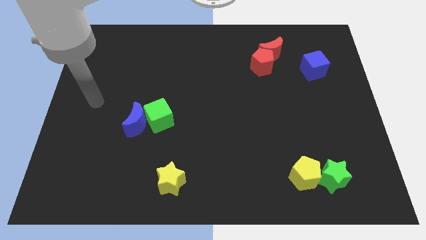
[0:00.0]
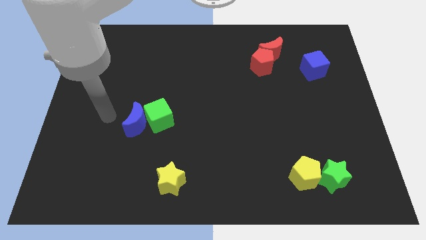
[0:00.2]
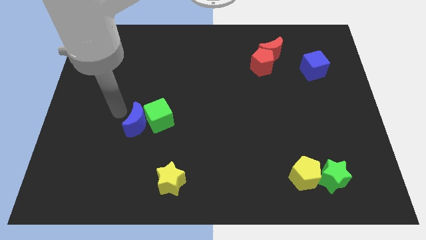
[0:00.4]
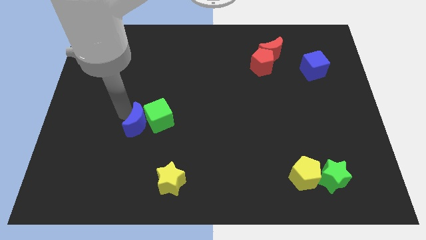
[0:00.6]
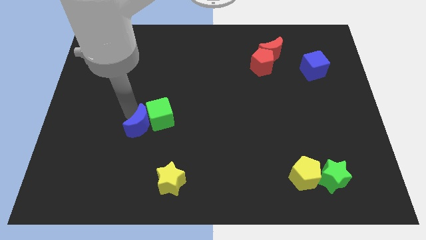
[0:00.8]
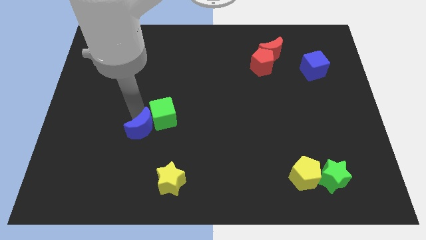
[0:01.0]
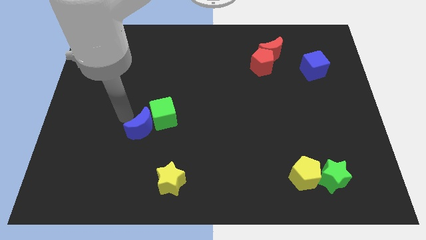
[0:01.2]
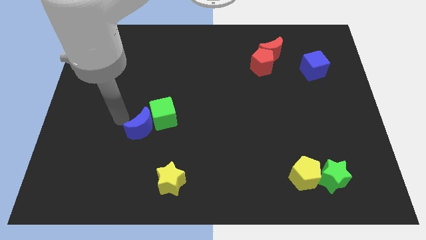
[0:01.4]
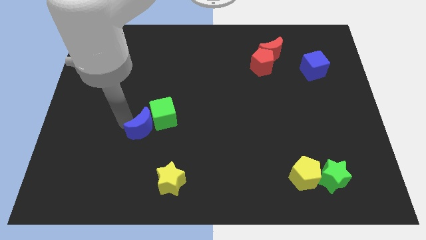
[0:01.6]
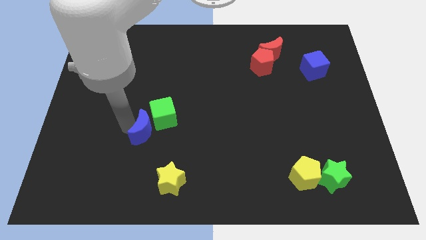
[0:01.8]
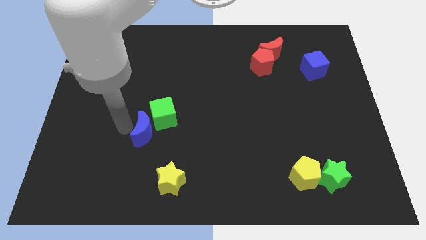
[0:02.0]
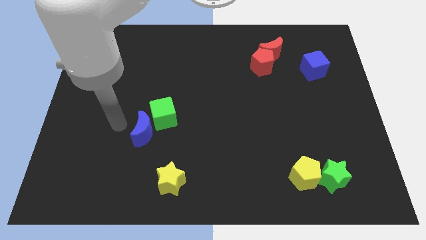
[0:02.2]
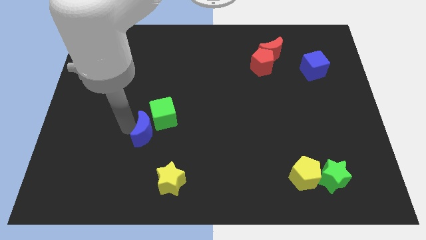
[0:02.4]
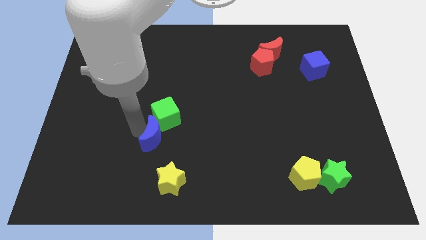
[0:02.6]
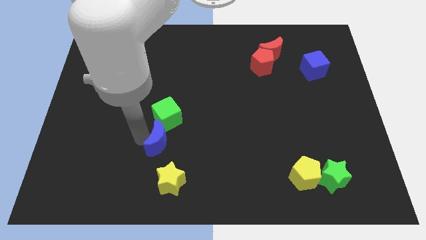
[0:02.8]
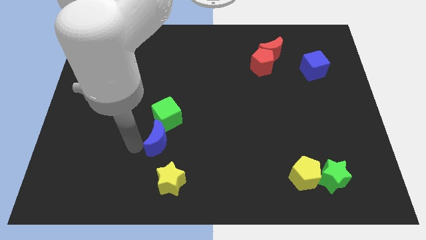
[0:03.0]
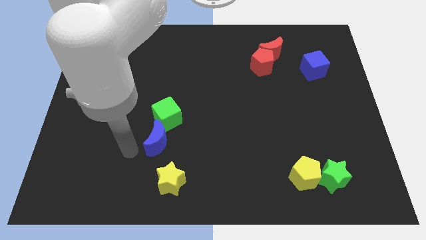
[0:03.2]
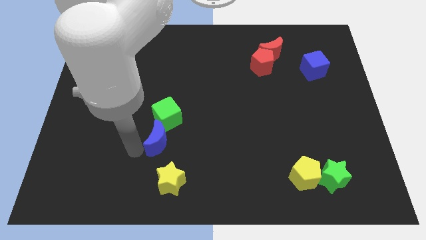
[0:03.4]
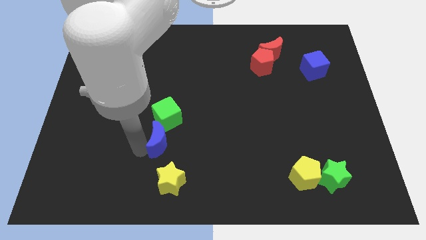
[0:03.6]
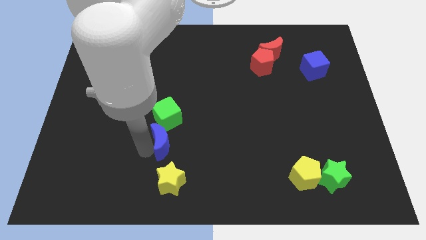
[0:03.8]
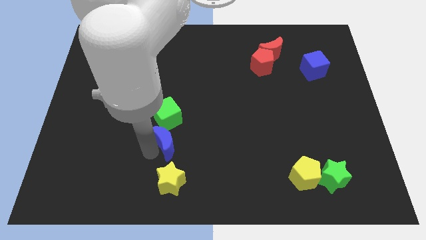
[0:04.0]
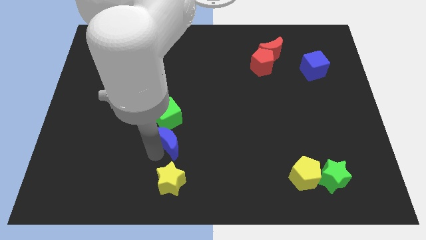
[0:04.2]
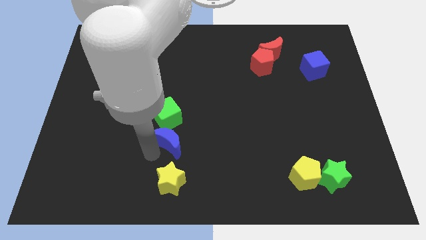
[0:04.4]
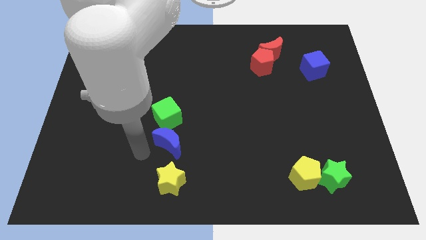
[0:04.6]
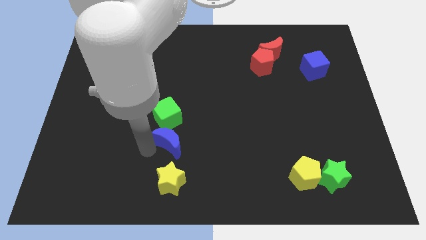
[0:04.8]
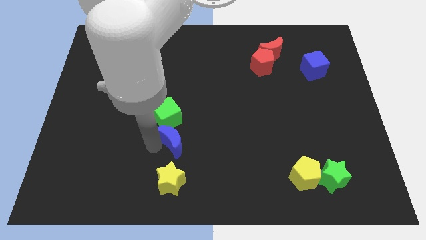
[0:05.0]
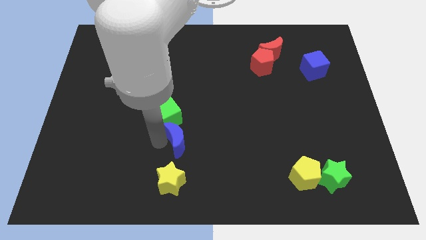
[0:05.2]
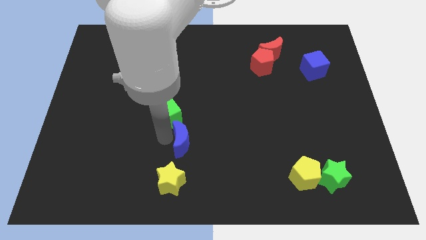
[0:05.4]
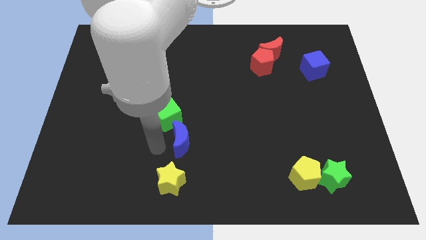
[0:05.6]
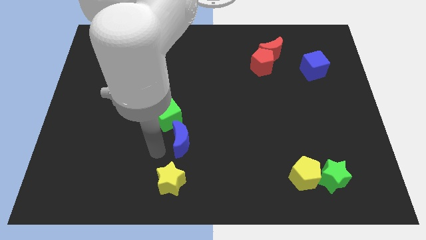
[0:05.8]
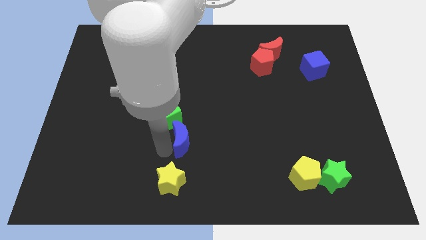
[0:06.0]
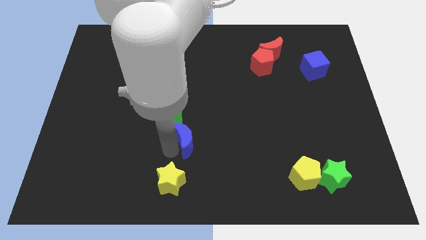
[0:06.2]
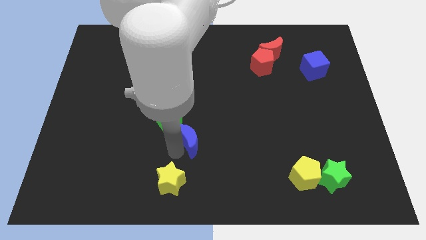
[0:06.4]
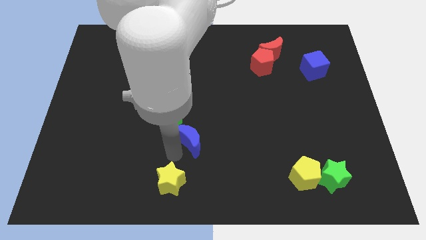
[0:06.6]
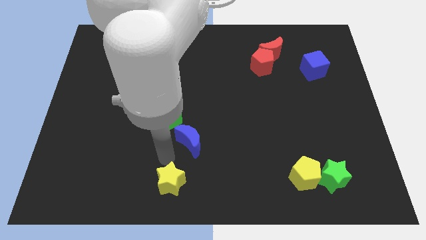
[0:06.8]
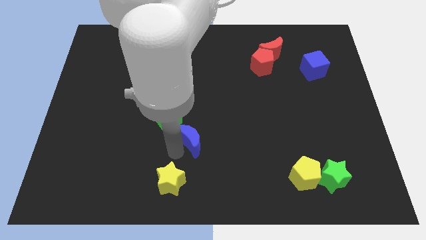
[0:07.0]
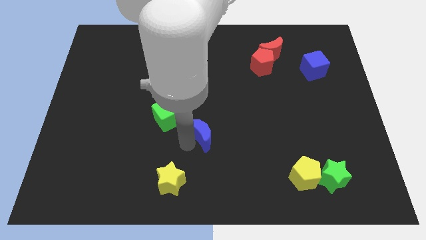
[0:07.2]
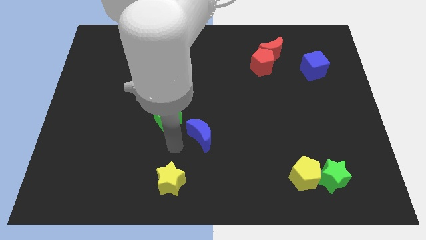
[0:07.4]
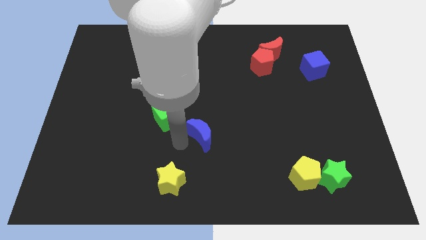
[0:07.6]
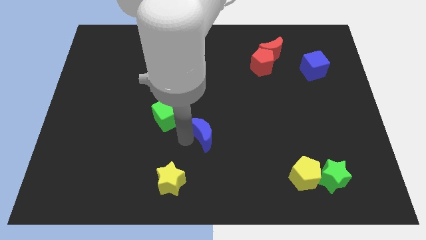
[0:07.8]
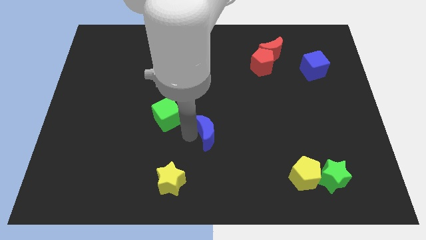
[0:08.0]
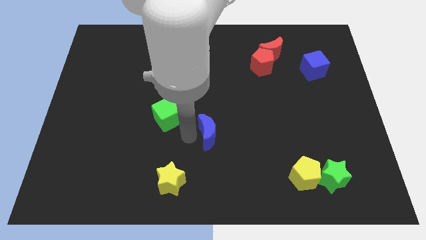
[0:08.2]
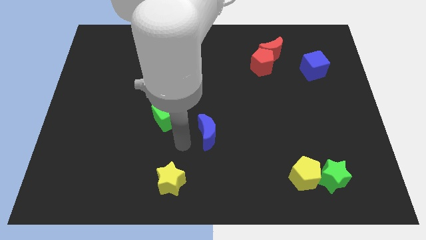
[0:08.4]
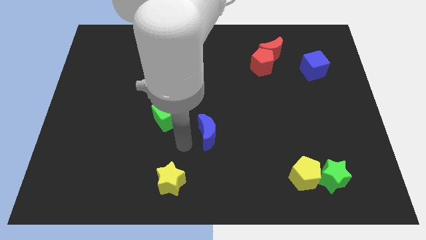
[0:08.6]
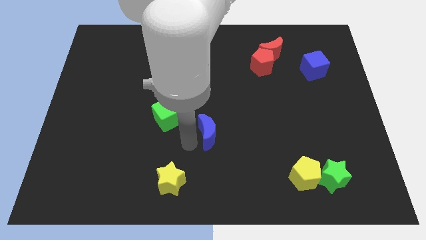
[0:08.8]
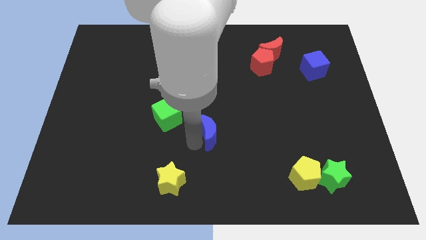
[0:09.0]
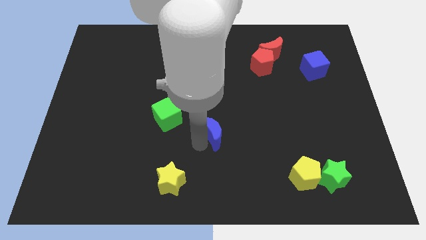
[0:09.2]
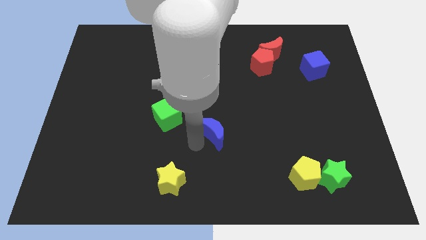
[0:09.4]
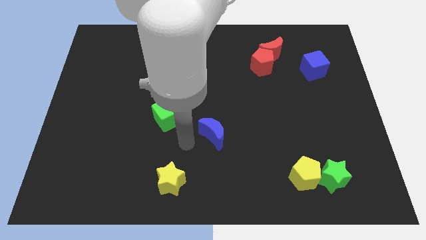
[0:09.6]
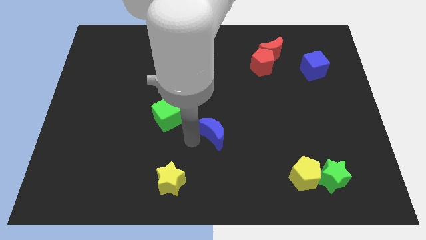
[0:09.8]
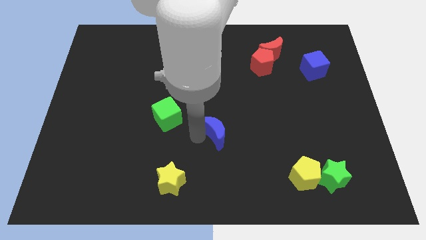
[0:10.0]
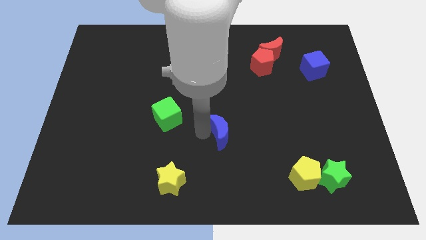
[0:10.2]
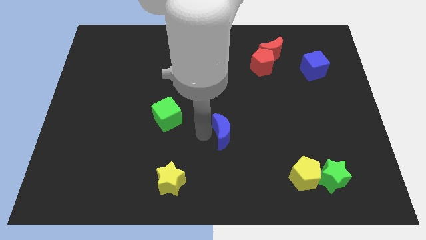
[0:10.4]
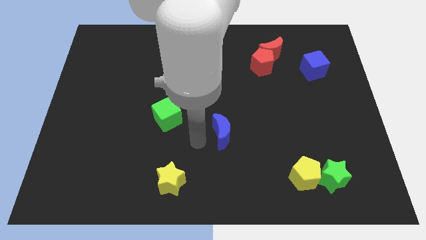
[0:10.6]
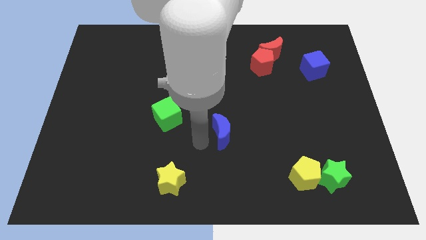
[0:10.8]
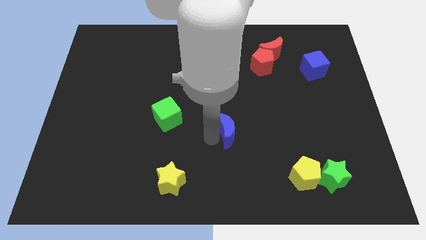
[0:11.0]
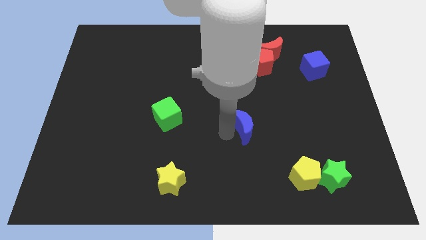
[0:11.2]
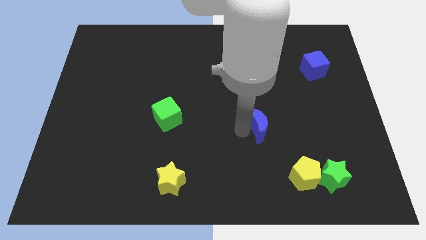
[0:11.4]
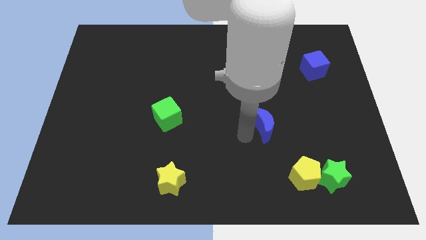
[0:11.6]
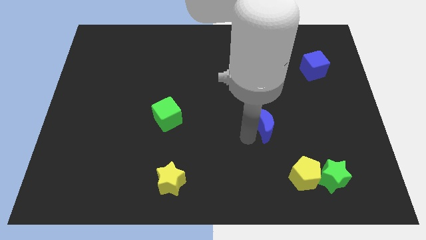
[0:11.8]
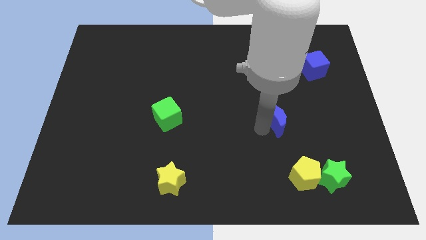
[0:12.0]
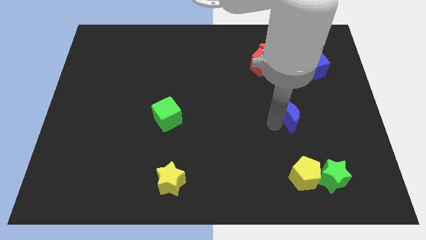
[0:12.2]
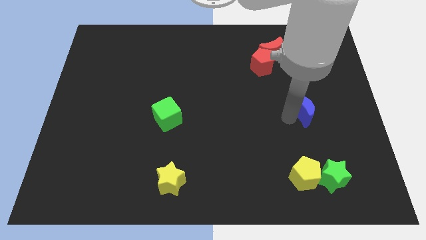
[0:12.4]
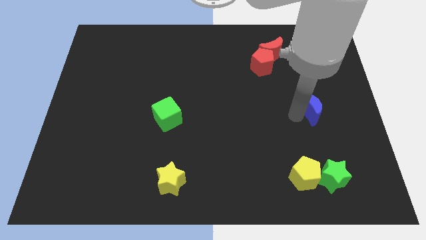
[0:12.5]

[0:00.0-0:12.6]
push the blue moon to the bottom of the blue cube
